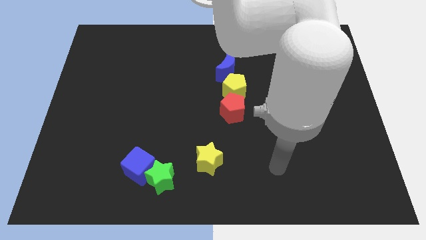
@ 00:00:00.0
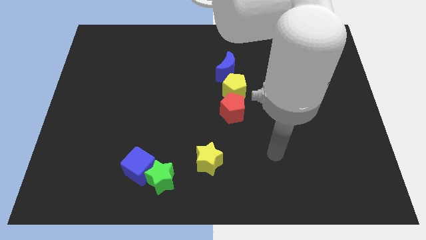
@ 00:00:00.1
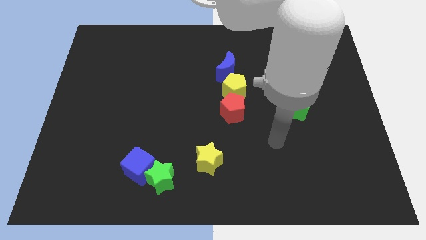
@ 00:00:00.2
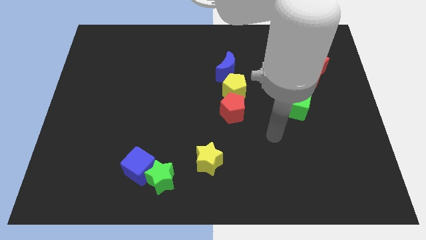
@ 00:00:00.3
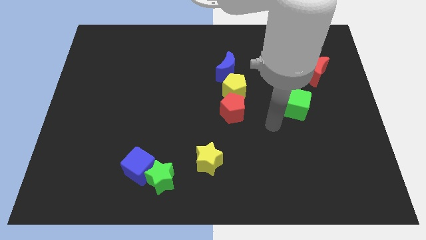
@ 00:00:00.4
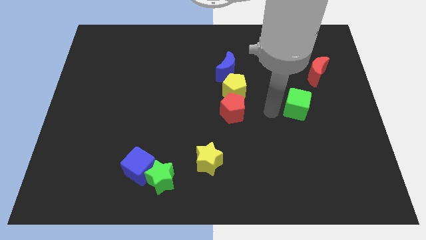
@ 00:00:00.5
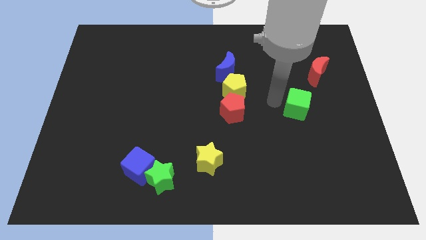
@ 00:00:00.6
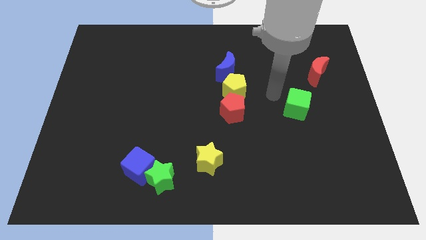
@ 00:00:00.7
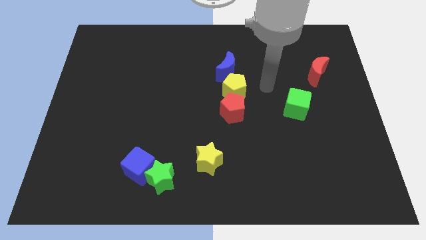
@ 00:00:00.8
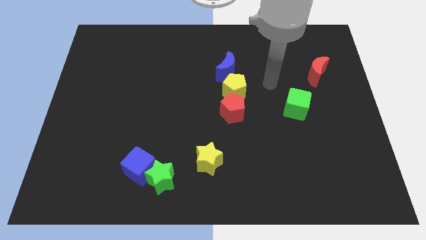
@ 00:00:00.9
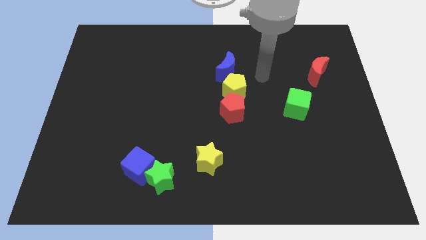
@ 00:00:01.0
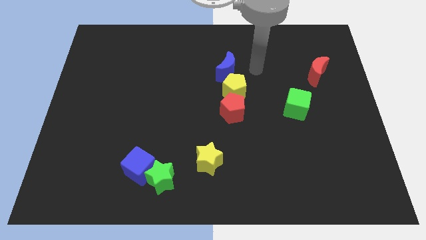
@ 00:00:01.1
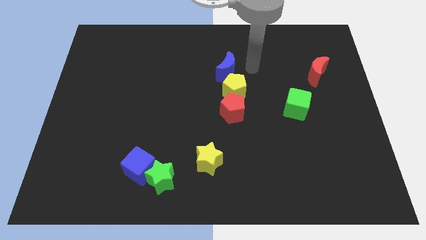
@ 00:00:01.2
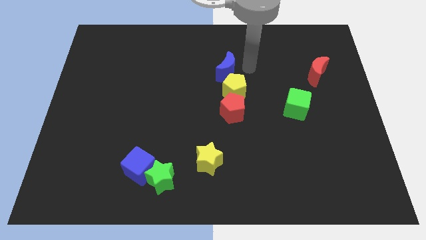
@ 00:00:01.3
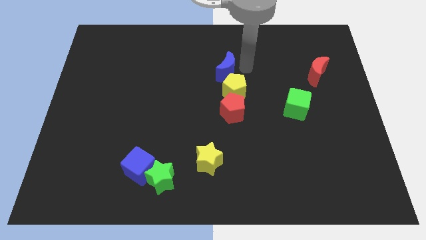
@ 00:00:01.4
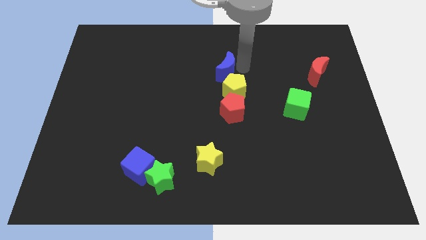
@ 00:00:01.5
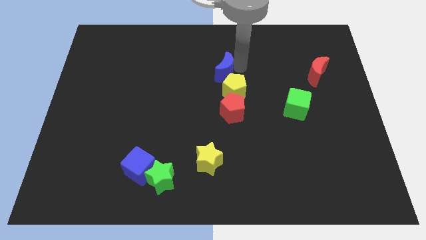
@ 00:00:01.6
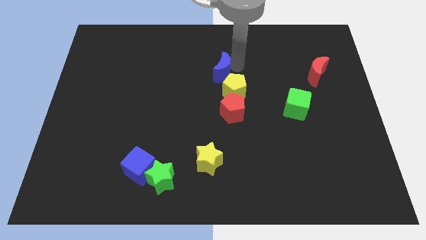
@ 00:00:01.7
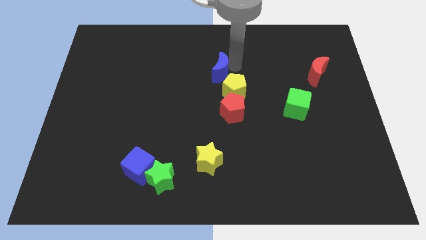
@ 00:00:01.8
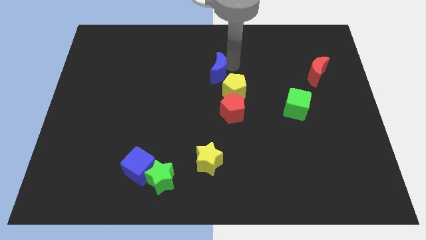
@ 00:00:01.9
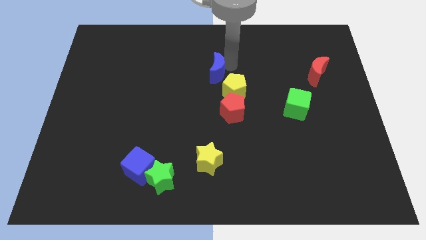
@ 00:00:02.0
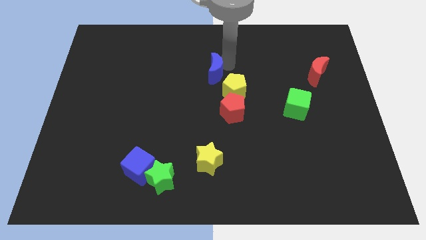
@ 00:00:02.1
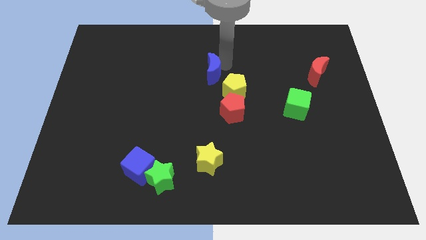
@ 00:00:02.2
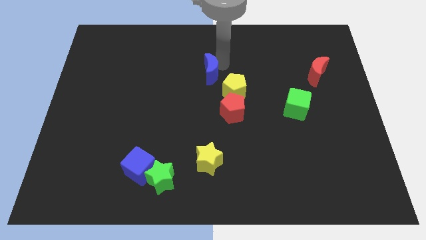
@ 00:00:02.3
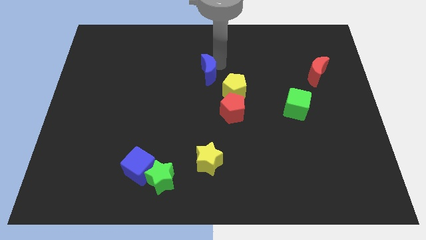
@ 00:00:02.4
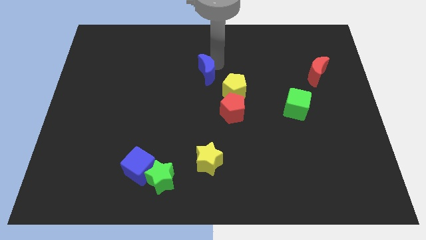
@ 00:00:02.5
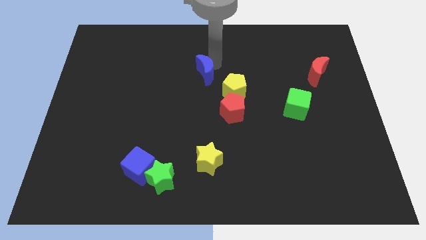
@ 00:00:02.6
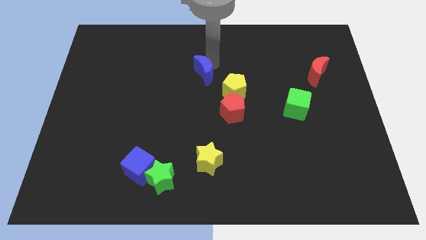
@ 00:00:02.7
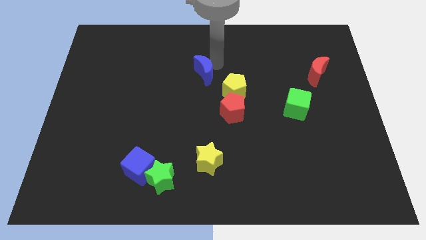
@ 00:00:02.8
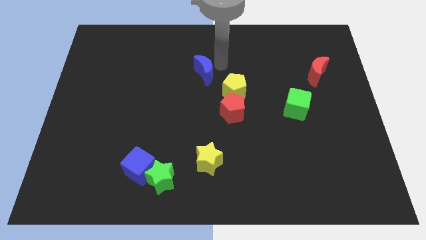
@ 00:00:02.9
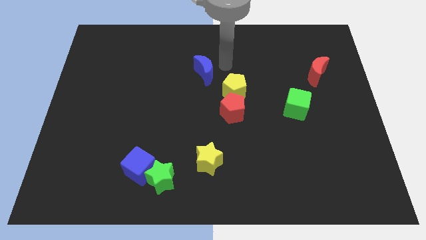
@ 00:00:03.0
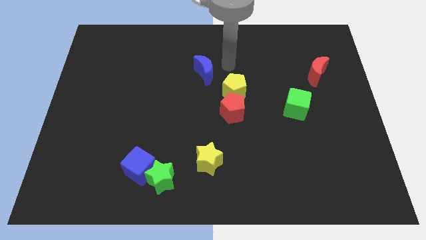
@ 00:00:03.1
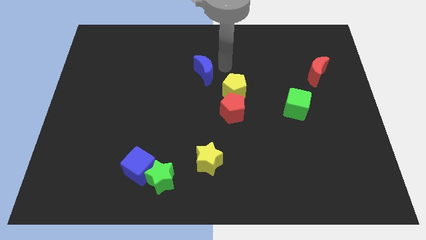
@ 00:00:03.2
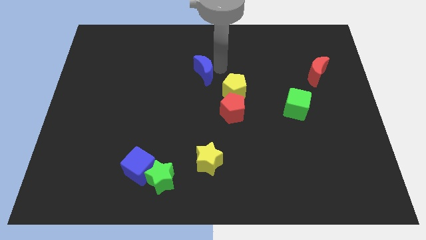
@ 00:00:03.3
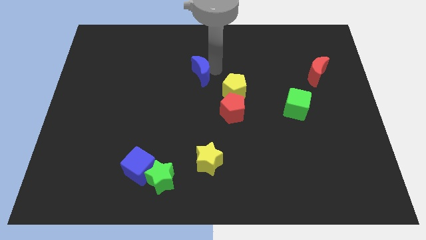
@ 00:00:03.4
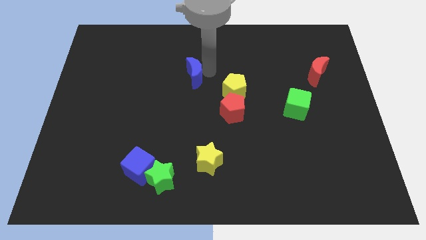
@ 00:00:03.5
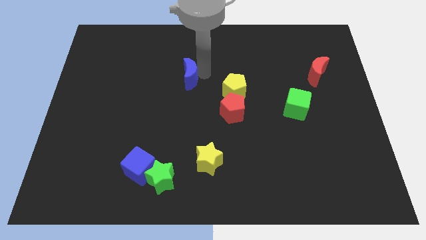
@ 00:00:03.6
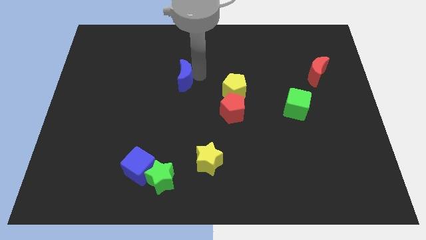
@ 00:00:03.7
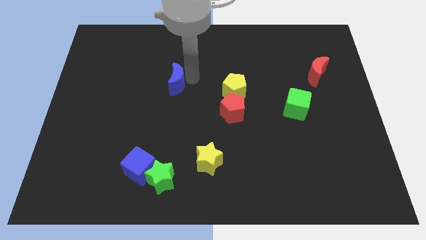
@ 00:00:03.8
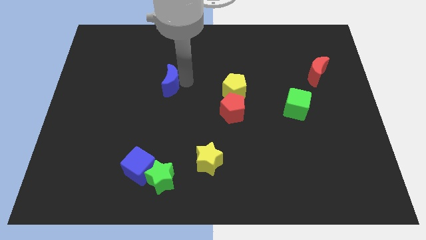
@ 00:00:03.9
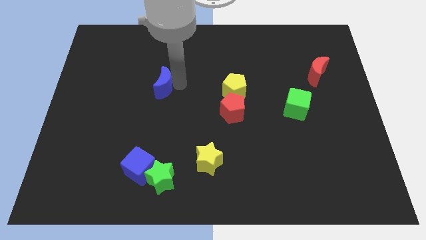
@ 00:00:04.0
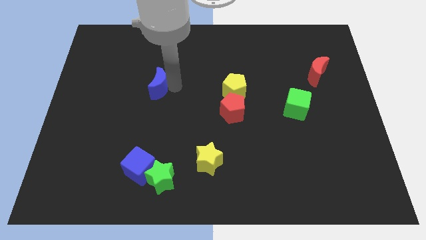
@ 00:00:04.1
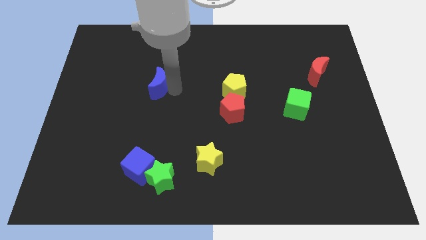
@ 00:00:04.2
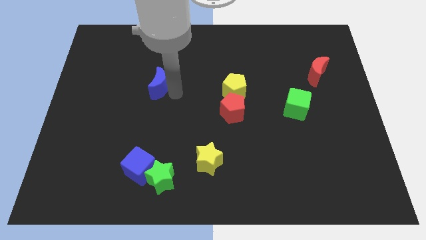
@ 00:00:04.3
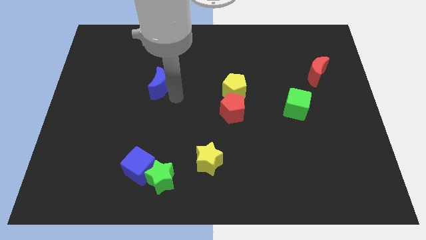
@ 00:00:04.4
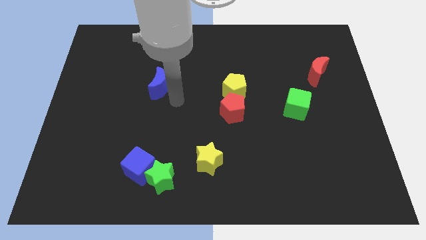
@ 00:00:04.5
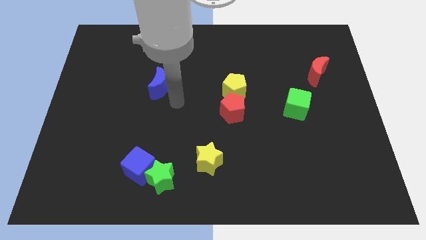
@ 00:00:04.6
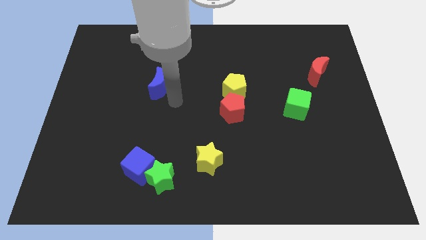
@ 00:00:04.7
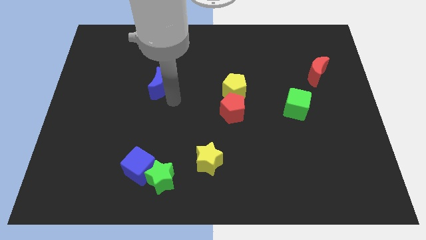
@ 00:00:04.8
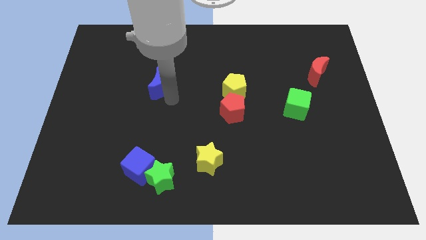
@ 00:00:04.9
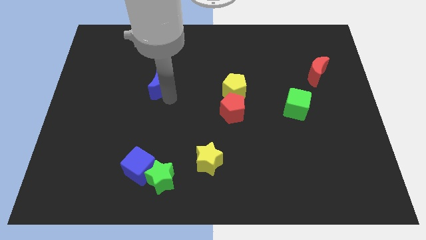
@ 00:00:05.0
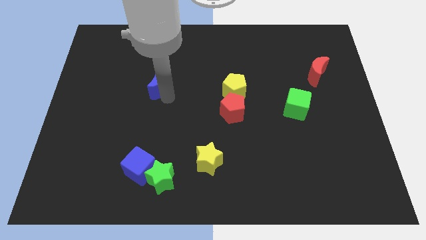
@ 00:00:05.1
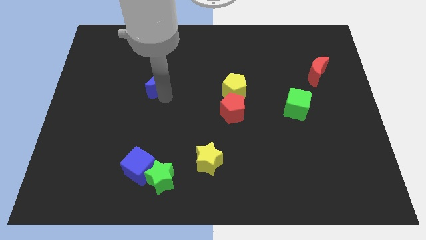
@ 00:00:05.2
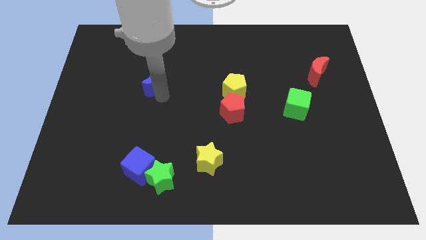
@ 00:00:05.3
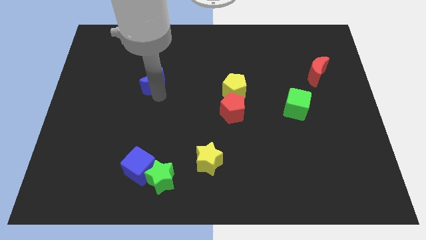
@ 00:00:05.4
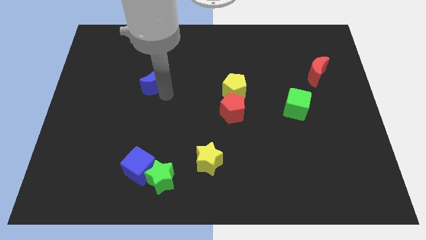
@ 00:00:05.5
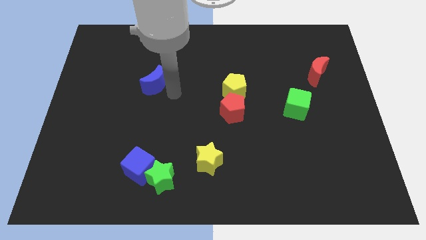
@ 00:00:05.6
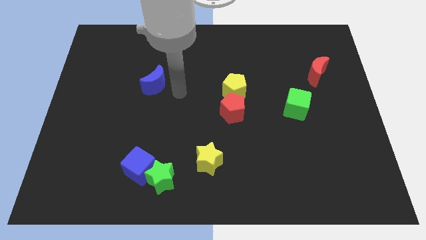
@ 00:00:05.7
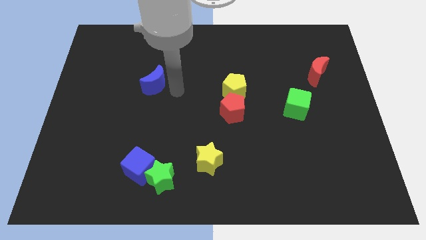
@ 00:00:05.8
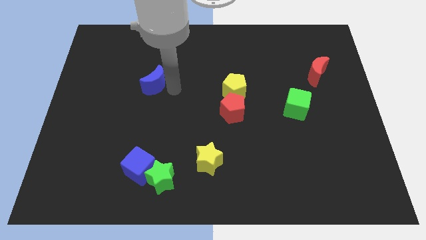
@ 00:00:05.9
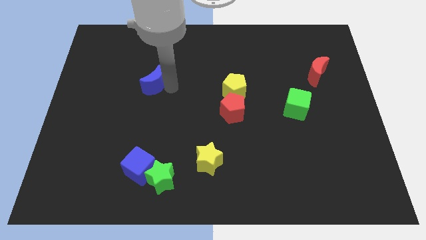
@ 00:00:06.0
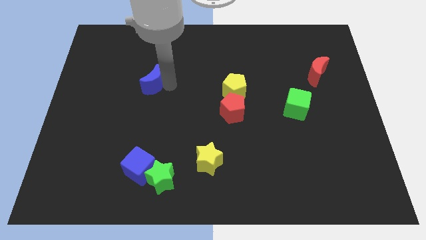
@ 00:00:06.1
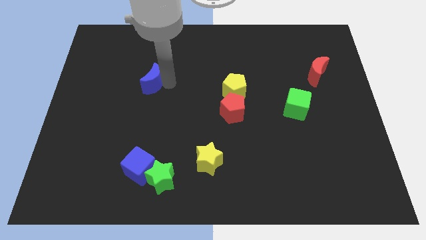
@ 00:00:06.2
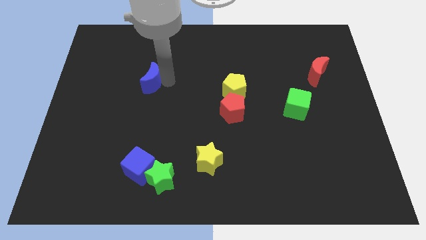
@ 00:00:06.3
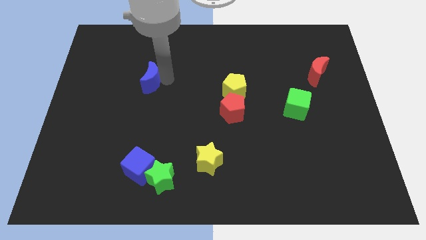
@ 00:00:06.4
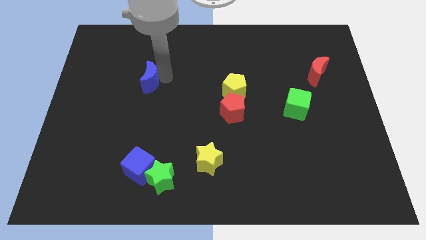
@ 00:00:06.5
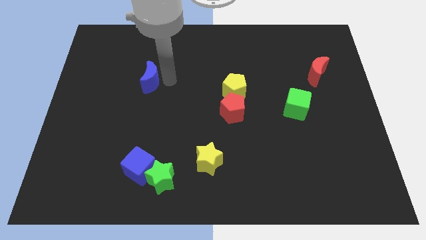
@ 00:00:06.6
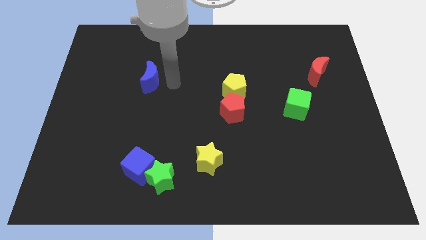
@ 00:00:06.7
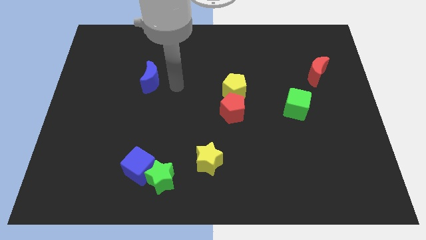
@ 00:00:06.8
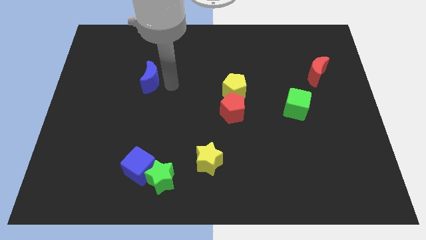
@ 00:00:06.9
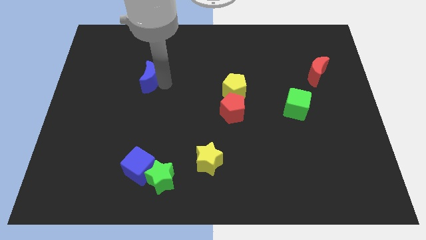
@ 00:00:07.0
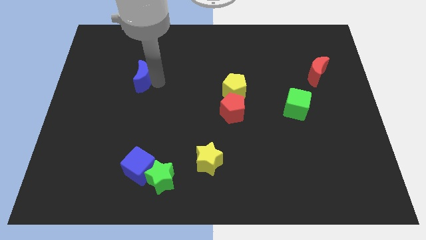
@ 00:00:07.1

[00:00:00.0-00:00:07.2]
push the blue moon left

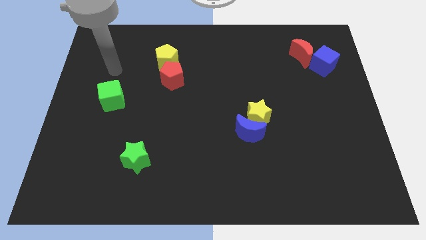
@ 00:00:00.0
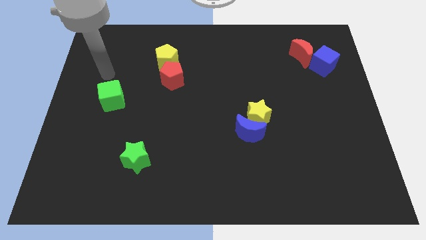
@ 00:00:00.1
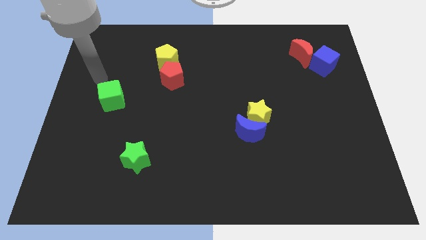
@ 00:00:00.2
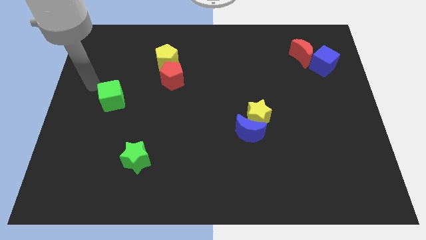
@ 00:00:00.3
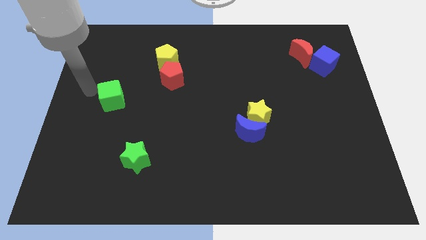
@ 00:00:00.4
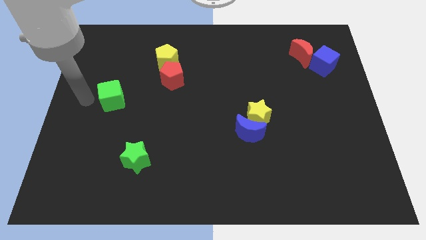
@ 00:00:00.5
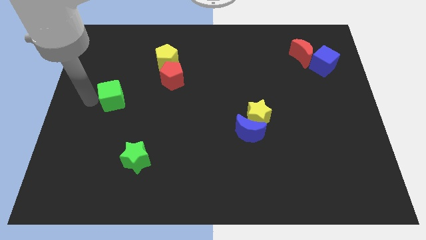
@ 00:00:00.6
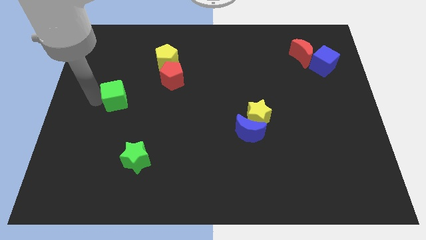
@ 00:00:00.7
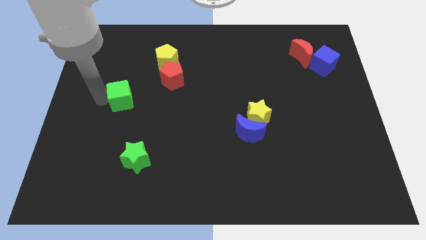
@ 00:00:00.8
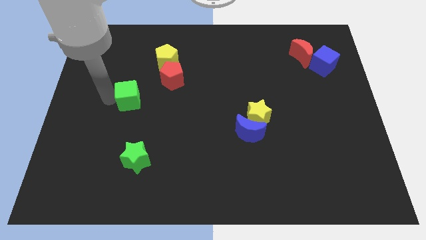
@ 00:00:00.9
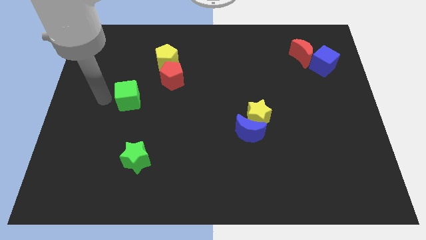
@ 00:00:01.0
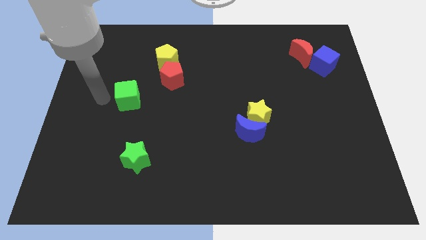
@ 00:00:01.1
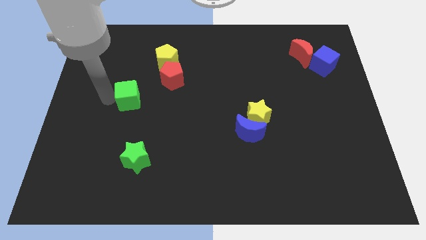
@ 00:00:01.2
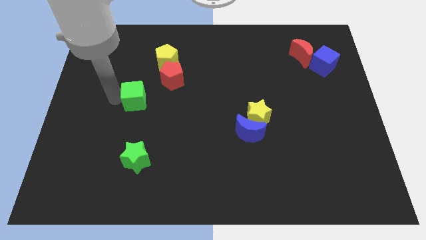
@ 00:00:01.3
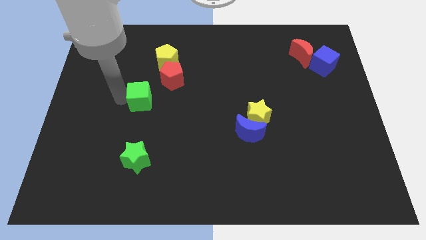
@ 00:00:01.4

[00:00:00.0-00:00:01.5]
push the green cube to the right a bit
